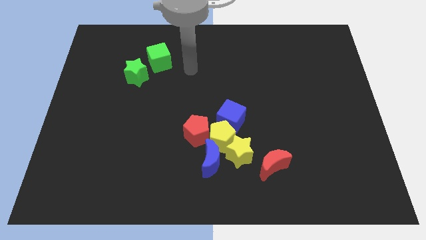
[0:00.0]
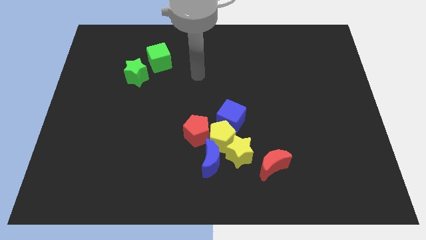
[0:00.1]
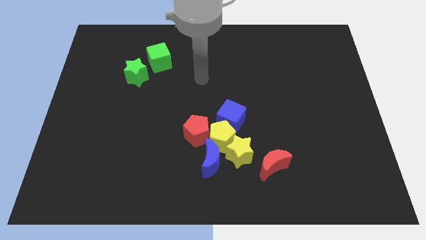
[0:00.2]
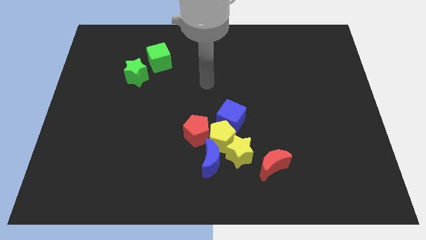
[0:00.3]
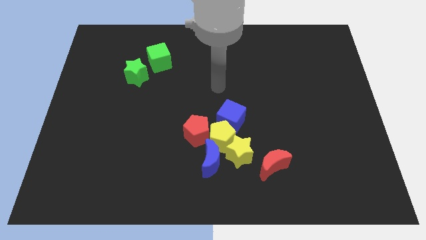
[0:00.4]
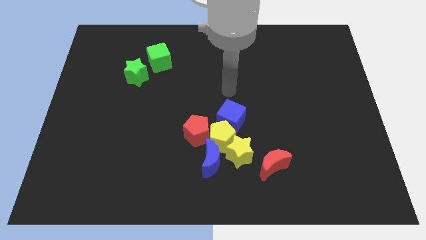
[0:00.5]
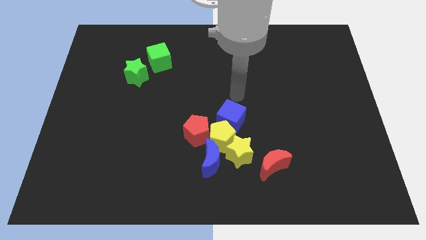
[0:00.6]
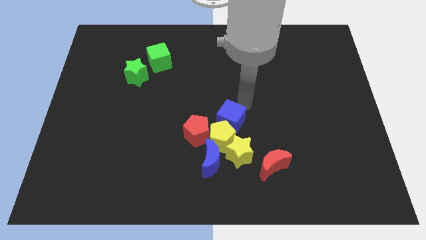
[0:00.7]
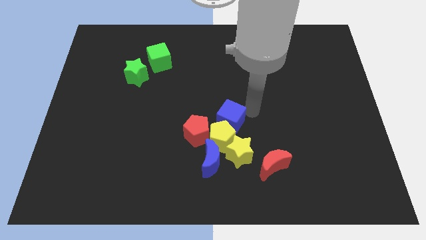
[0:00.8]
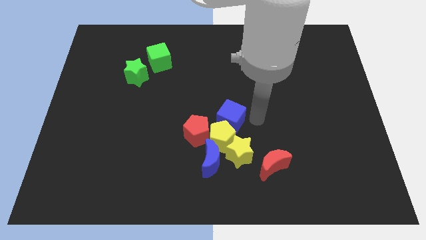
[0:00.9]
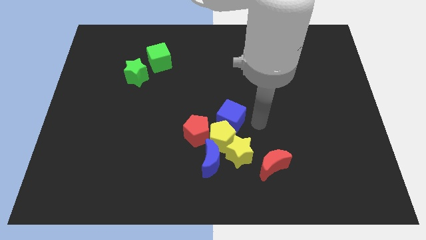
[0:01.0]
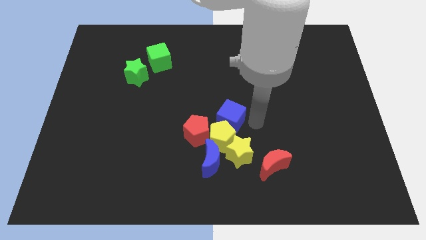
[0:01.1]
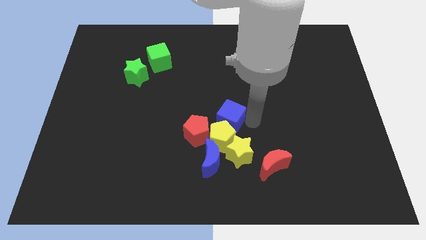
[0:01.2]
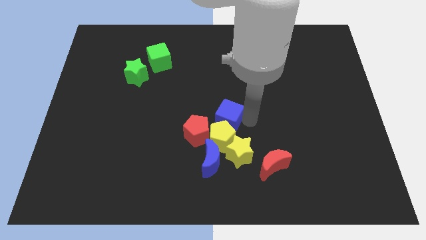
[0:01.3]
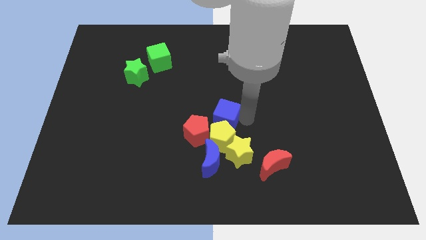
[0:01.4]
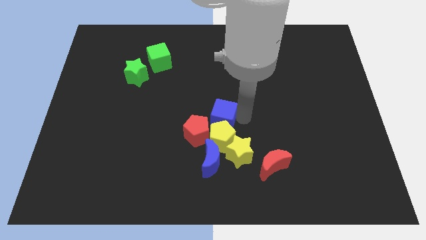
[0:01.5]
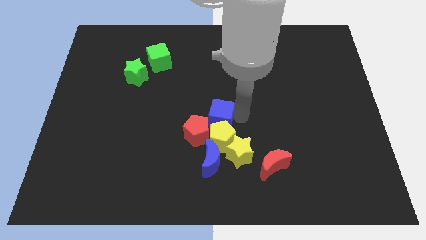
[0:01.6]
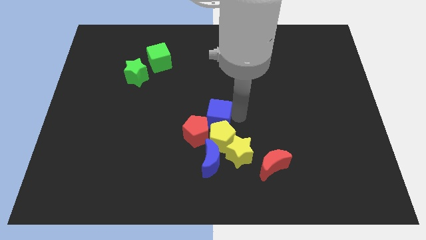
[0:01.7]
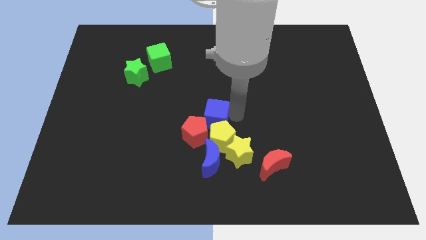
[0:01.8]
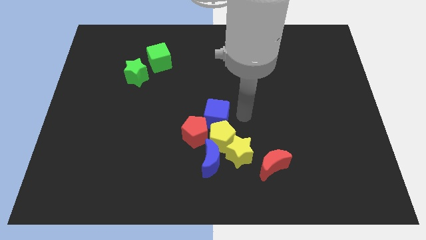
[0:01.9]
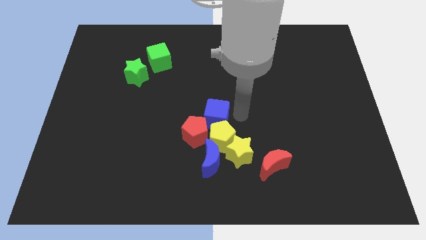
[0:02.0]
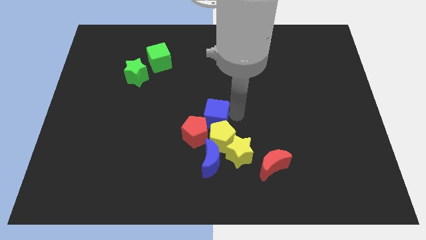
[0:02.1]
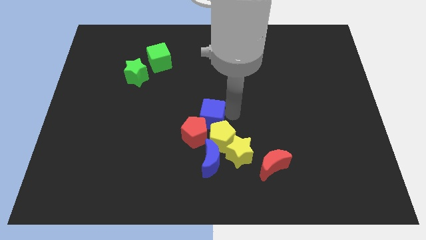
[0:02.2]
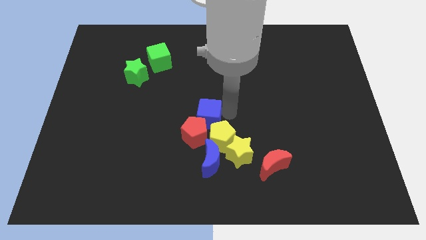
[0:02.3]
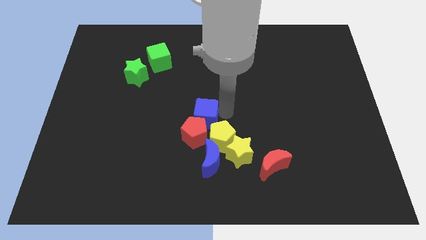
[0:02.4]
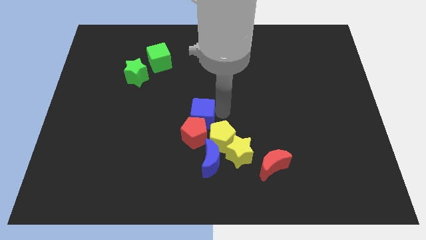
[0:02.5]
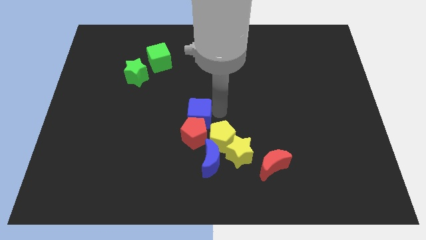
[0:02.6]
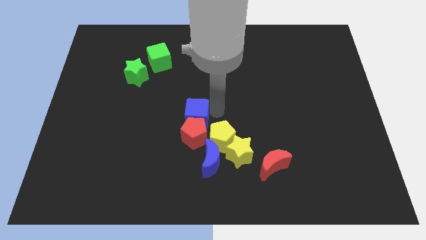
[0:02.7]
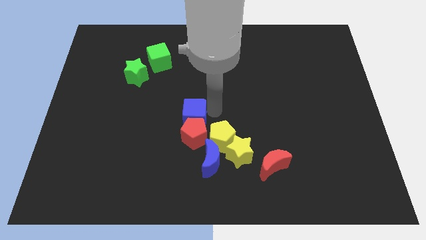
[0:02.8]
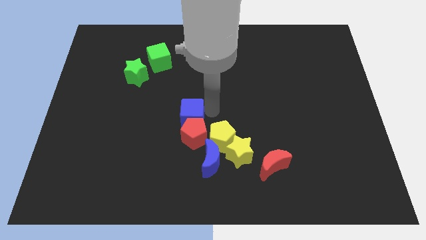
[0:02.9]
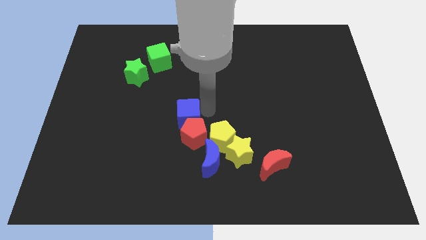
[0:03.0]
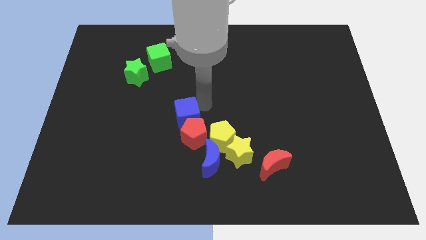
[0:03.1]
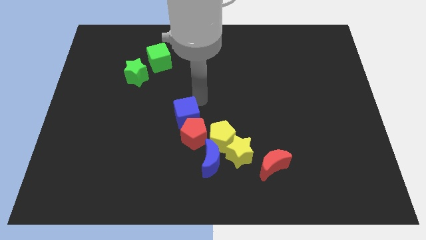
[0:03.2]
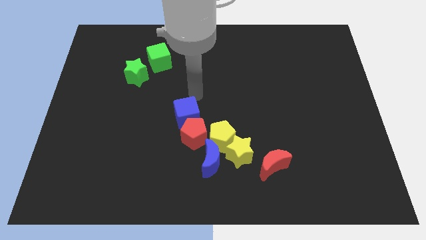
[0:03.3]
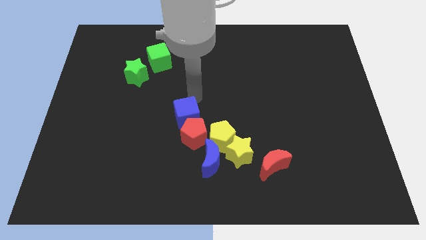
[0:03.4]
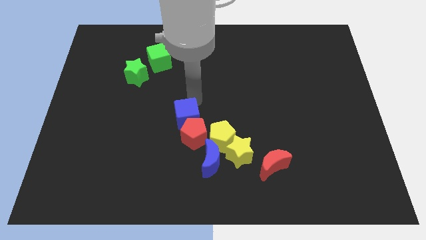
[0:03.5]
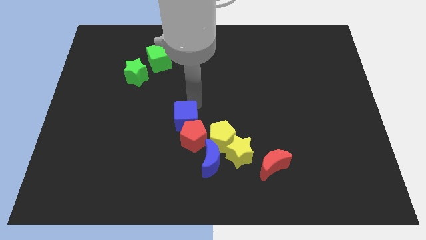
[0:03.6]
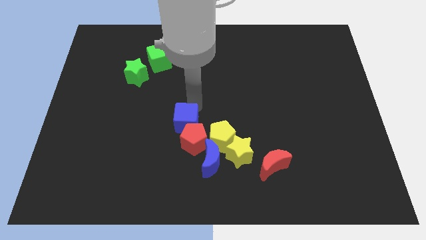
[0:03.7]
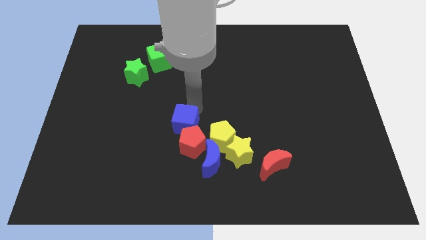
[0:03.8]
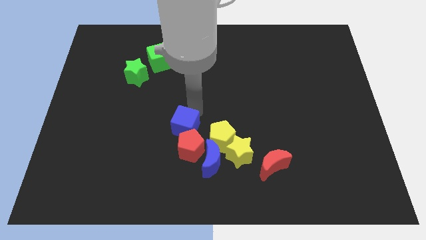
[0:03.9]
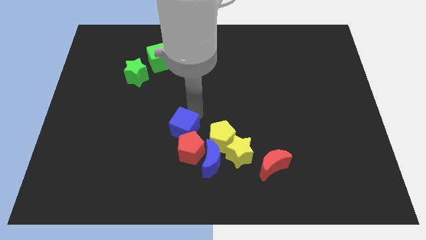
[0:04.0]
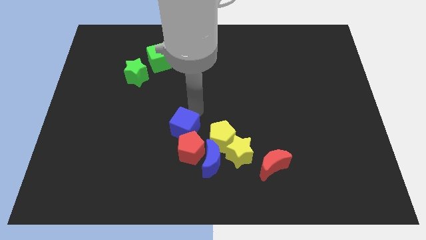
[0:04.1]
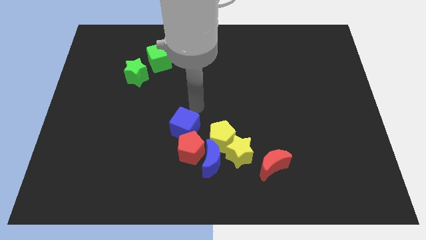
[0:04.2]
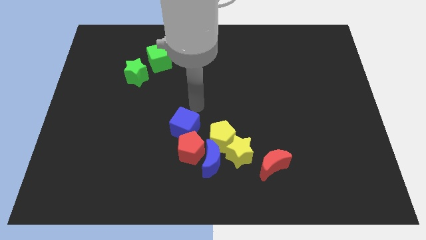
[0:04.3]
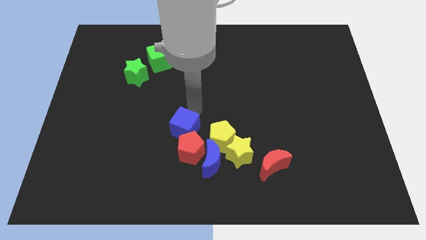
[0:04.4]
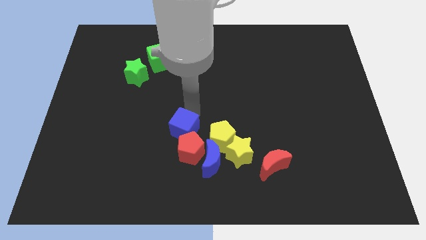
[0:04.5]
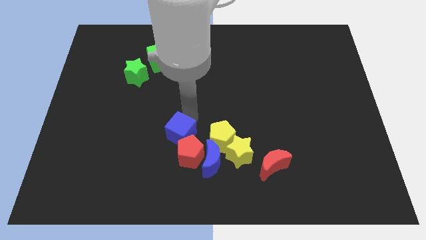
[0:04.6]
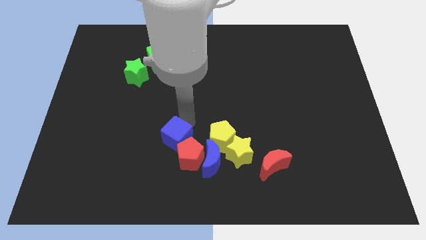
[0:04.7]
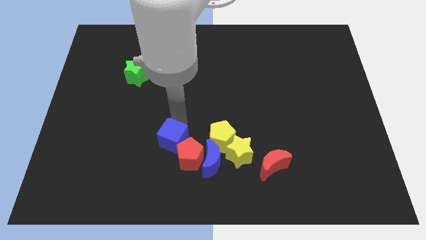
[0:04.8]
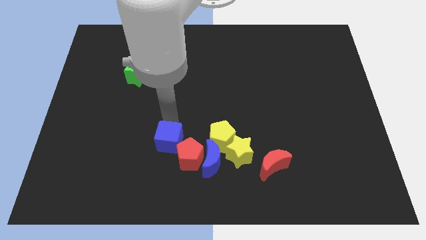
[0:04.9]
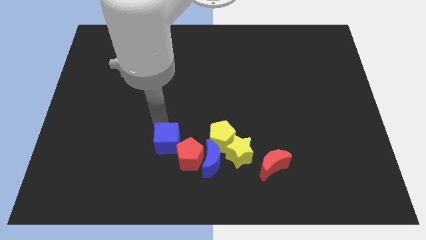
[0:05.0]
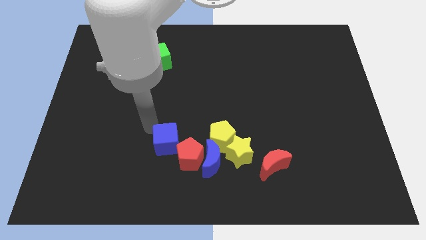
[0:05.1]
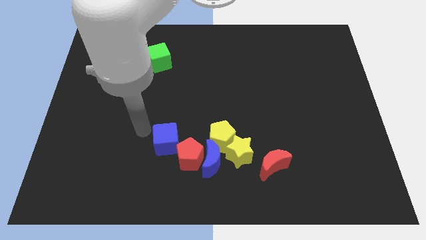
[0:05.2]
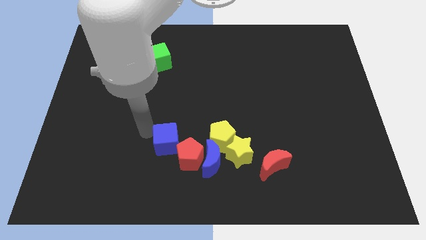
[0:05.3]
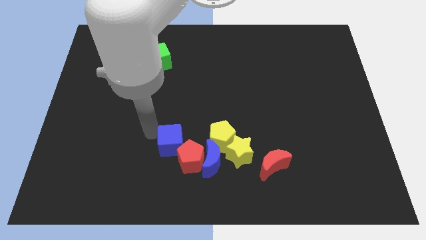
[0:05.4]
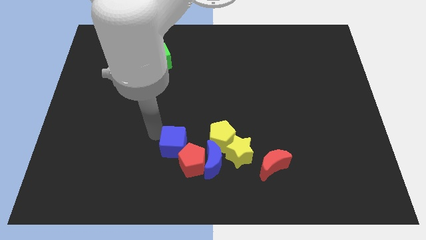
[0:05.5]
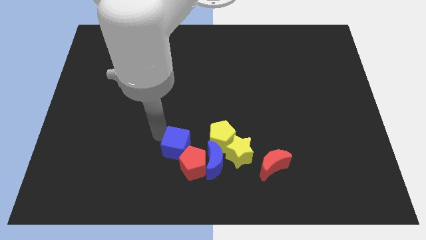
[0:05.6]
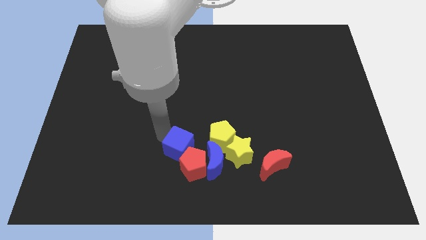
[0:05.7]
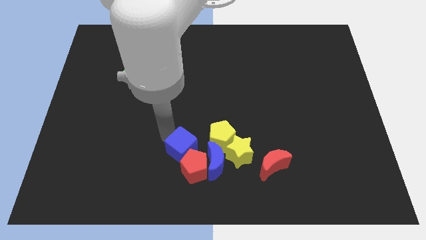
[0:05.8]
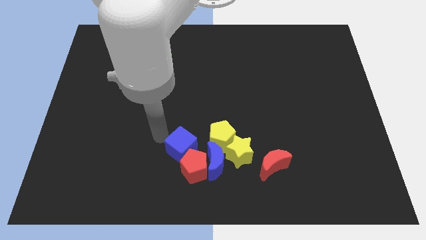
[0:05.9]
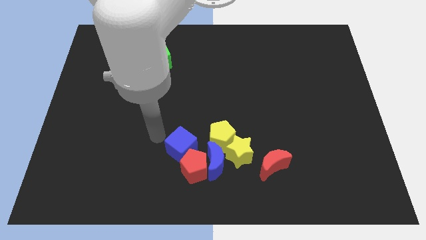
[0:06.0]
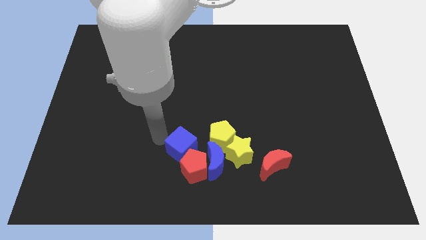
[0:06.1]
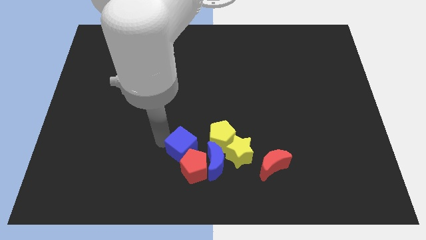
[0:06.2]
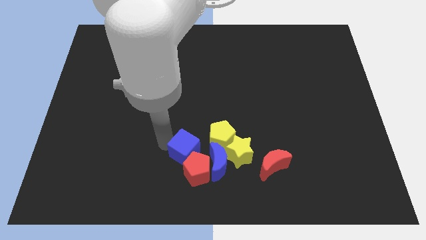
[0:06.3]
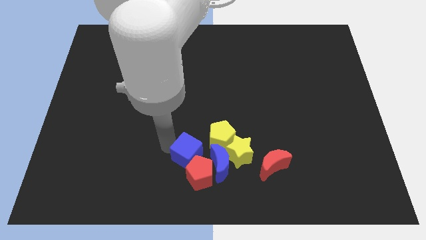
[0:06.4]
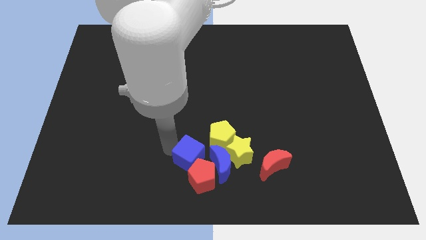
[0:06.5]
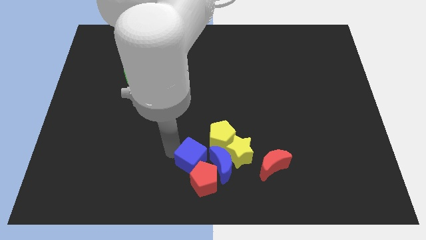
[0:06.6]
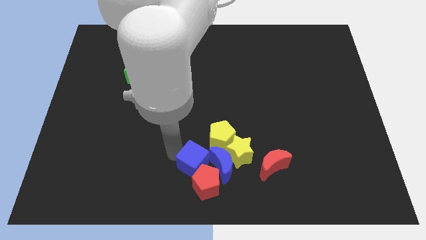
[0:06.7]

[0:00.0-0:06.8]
put the blue cube towards the blue moon
